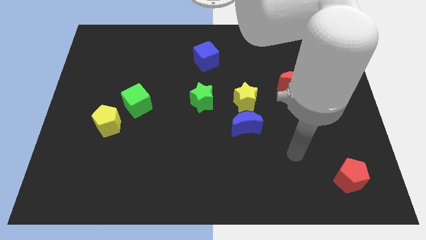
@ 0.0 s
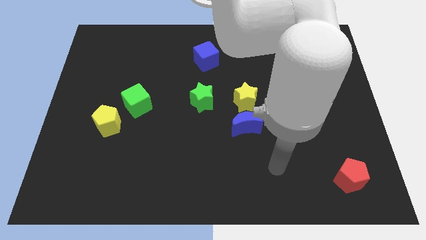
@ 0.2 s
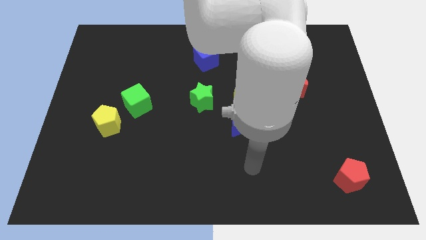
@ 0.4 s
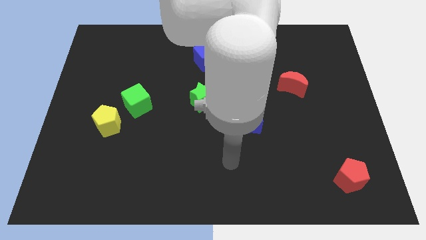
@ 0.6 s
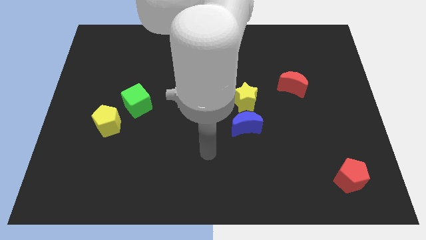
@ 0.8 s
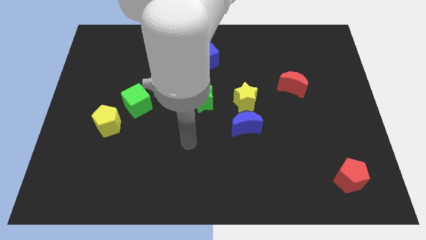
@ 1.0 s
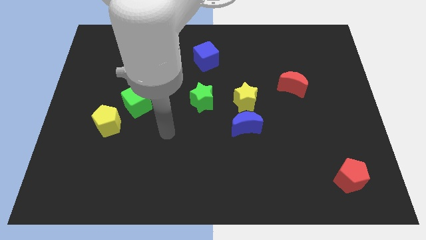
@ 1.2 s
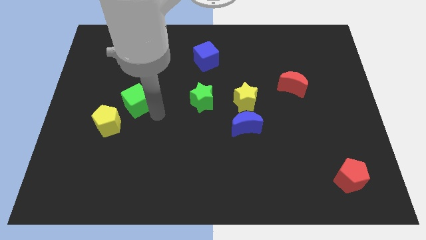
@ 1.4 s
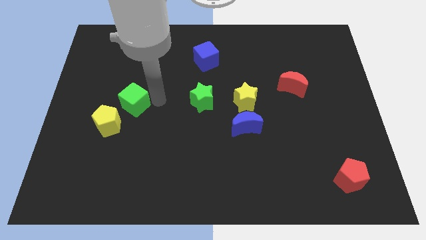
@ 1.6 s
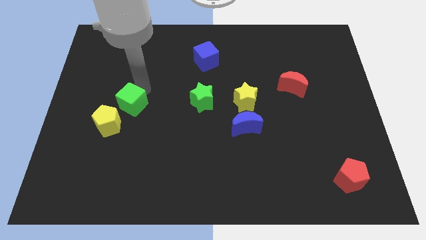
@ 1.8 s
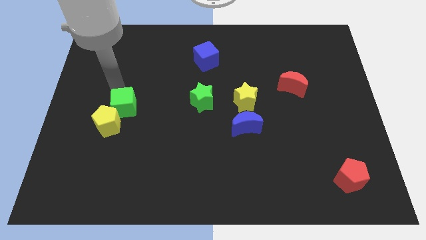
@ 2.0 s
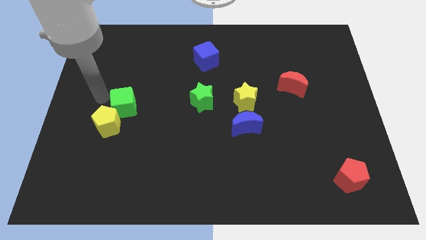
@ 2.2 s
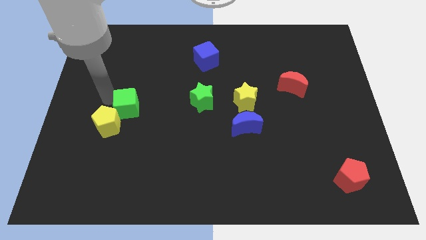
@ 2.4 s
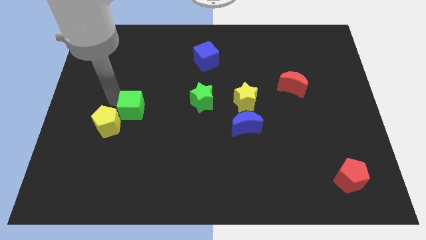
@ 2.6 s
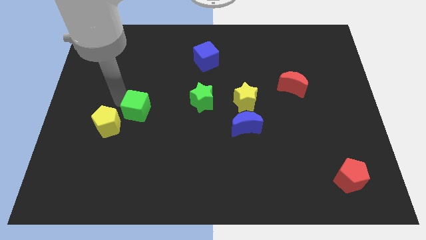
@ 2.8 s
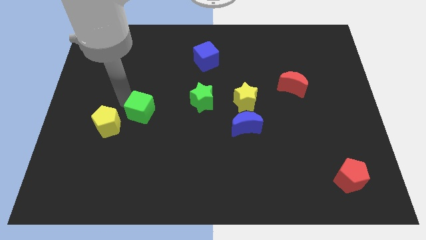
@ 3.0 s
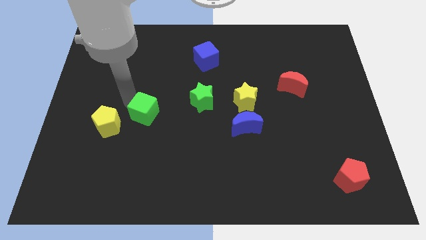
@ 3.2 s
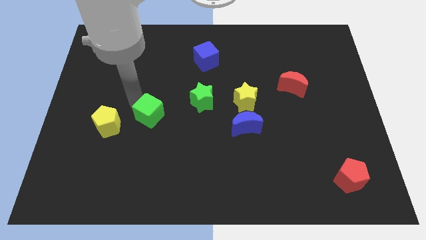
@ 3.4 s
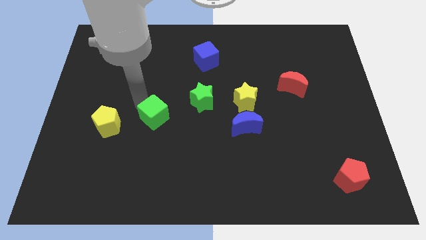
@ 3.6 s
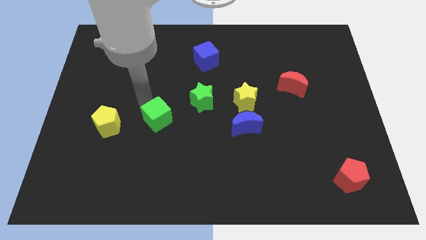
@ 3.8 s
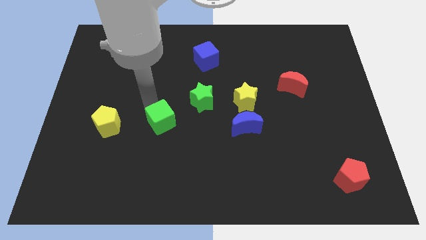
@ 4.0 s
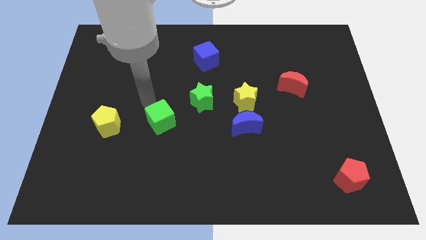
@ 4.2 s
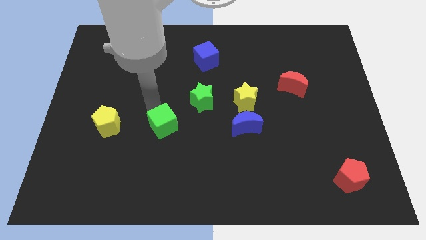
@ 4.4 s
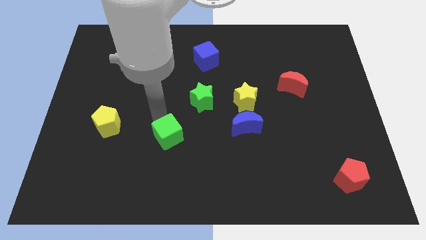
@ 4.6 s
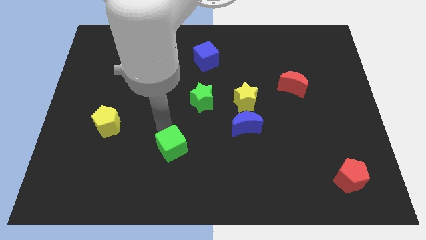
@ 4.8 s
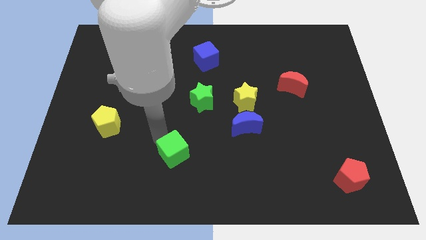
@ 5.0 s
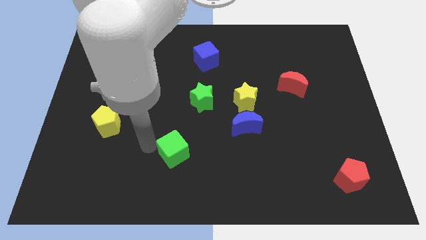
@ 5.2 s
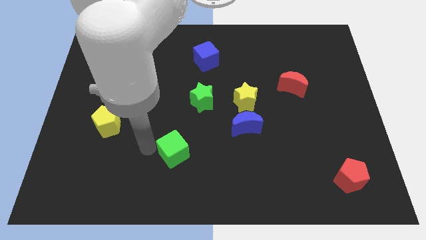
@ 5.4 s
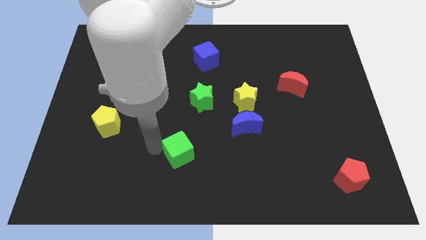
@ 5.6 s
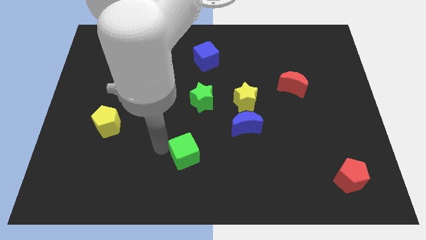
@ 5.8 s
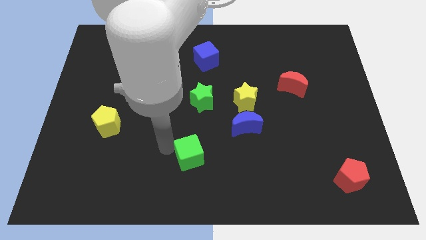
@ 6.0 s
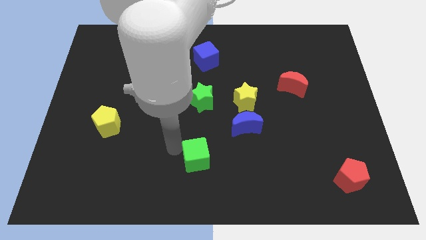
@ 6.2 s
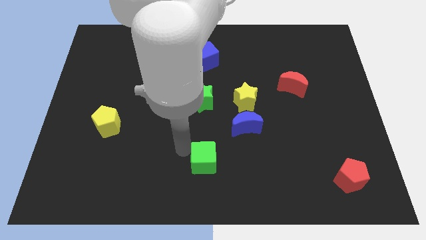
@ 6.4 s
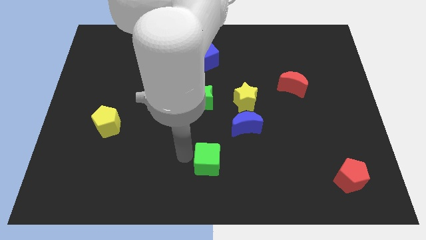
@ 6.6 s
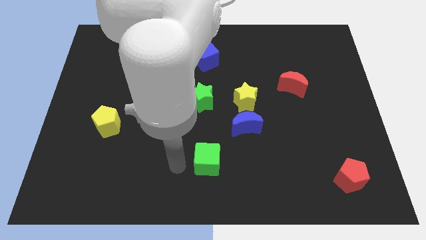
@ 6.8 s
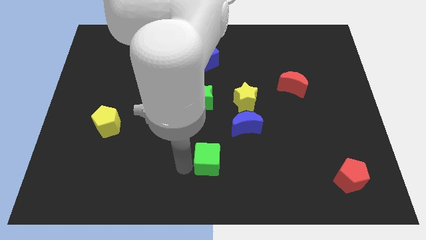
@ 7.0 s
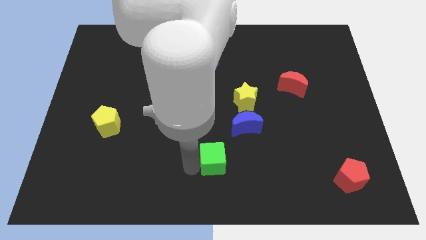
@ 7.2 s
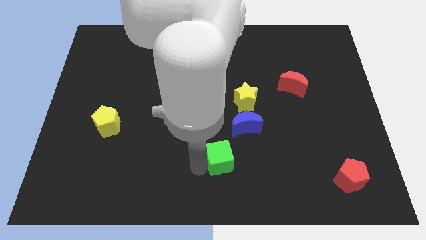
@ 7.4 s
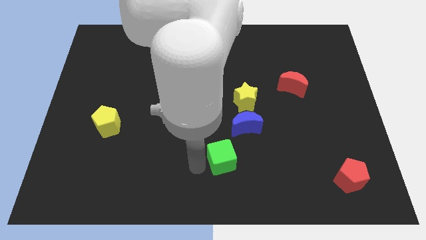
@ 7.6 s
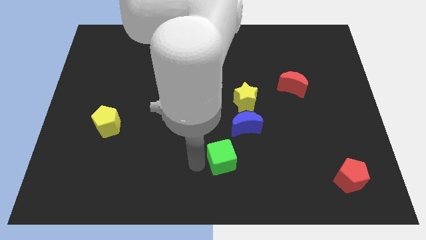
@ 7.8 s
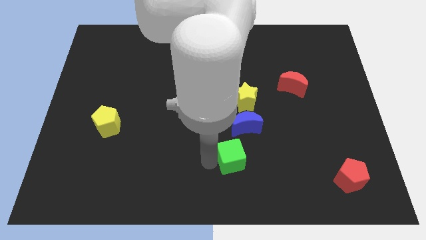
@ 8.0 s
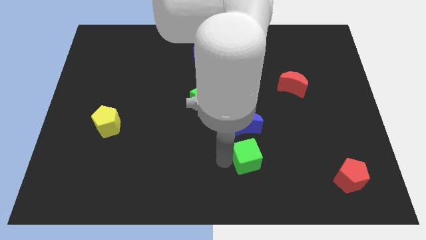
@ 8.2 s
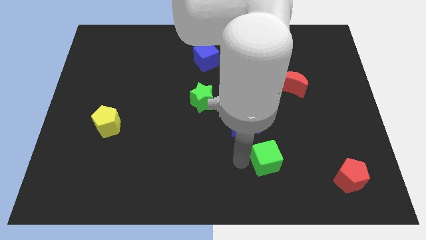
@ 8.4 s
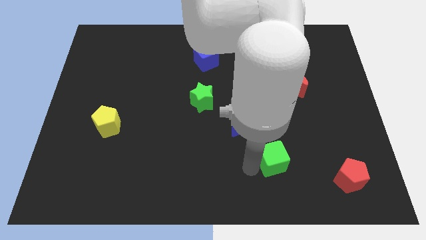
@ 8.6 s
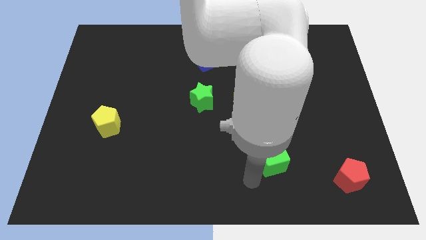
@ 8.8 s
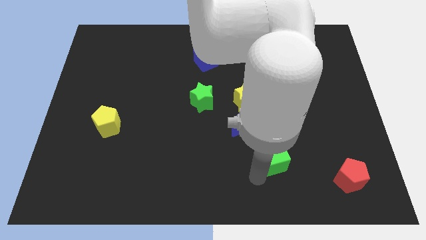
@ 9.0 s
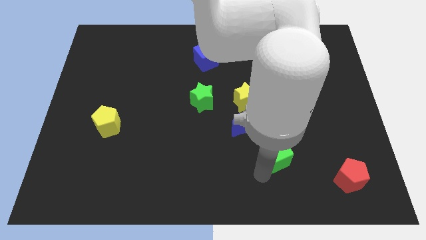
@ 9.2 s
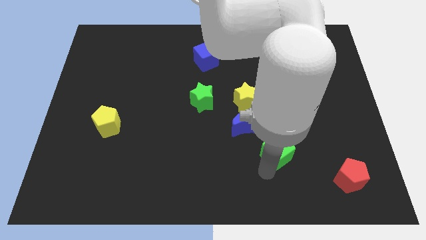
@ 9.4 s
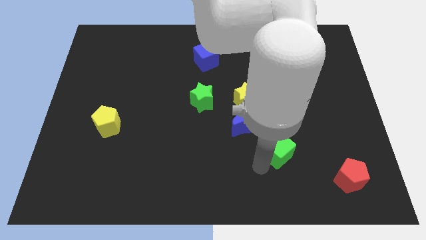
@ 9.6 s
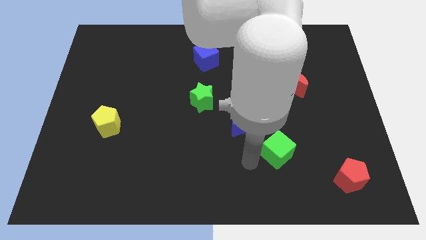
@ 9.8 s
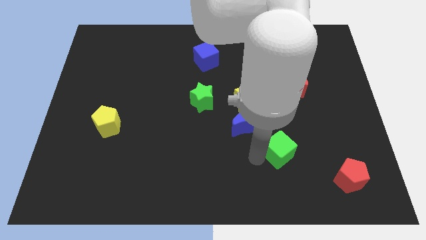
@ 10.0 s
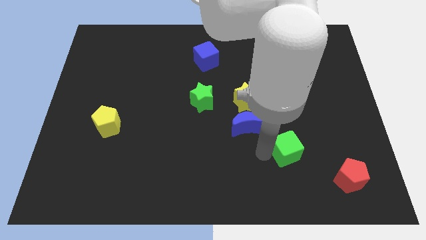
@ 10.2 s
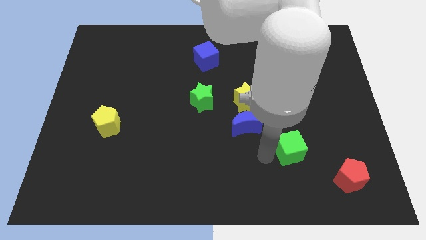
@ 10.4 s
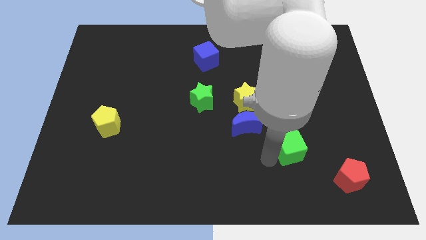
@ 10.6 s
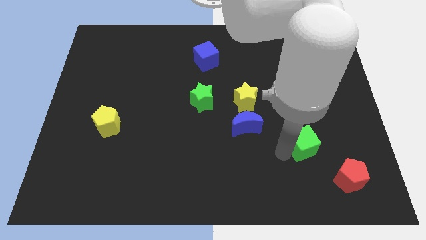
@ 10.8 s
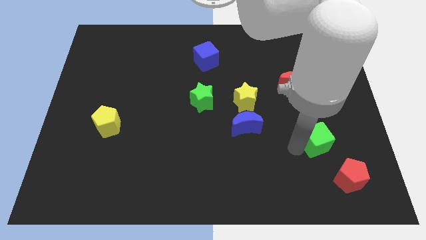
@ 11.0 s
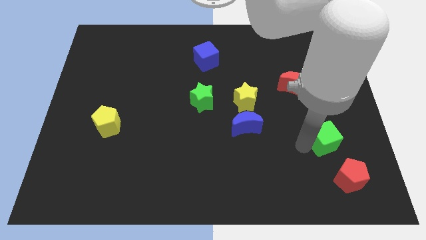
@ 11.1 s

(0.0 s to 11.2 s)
push the green cube to the top of the red pentagon

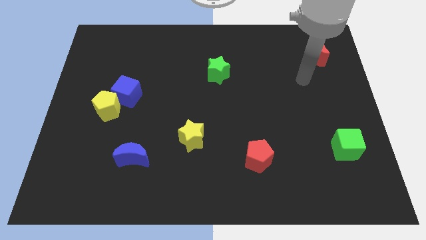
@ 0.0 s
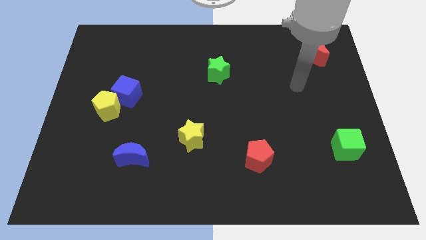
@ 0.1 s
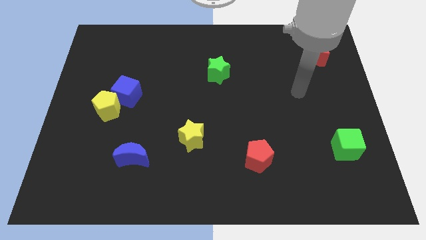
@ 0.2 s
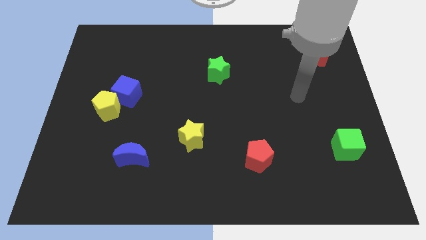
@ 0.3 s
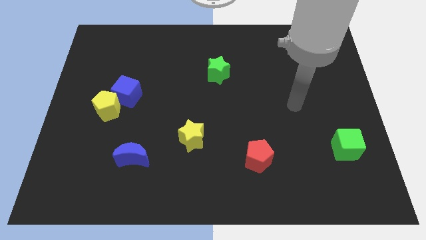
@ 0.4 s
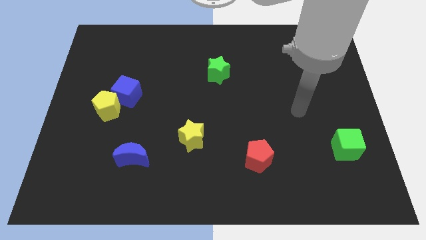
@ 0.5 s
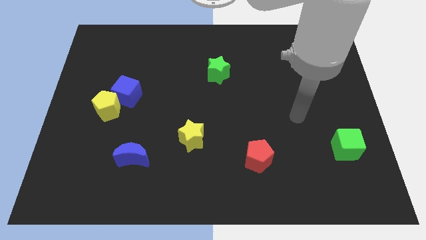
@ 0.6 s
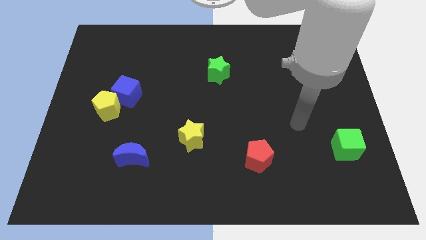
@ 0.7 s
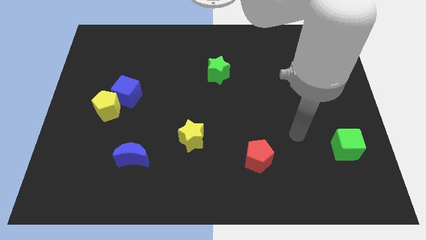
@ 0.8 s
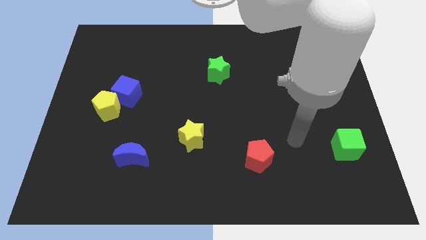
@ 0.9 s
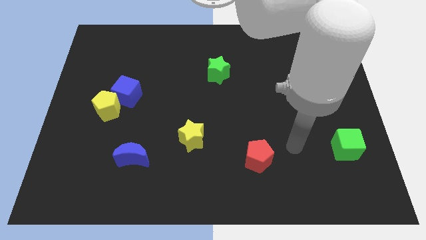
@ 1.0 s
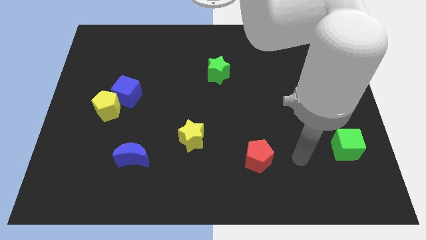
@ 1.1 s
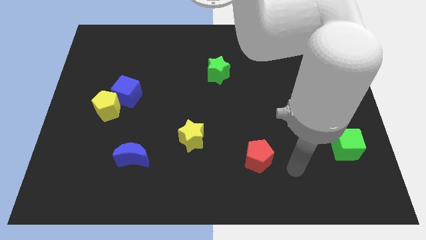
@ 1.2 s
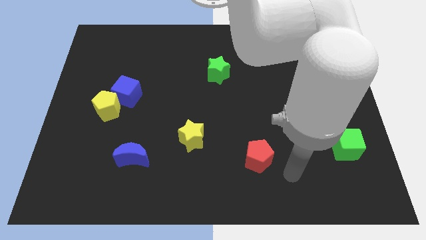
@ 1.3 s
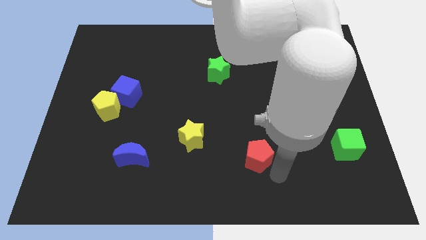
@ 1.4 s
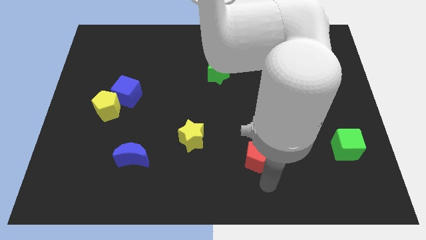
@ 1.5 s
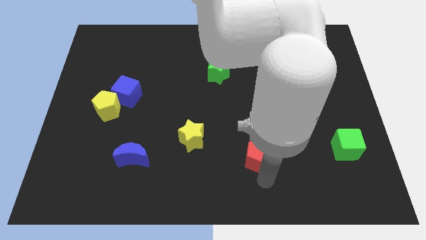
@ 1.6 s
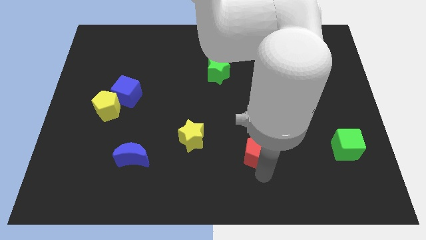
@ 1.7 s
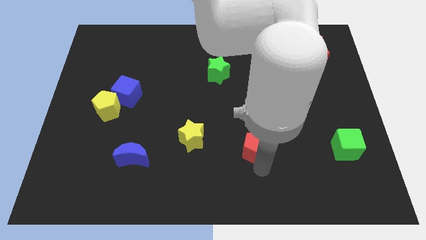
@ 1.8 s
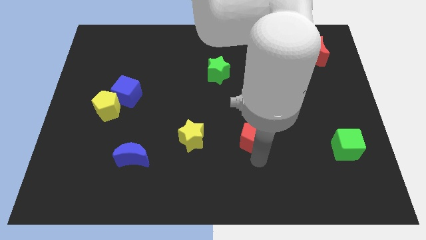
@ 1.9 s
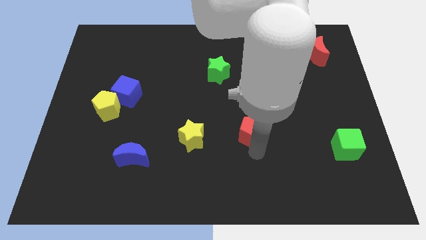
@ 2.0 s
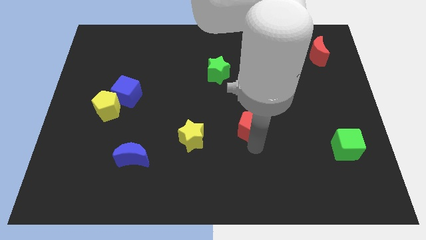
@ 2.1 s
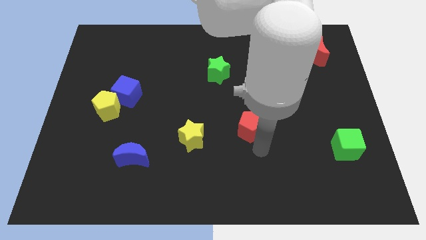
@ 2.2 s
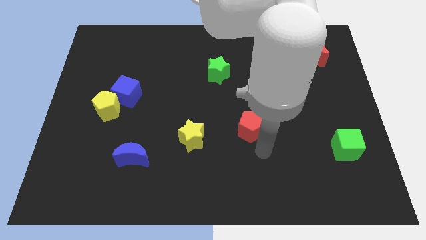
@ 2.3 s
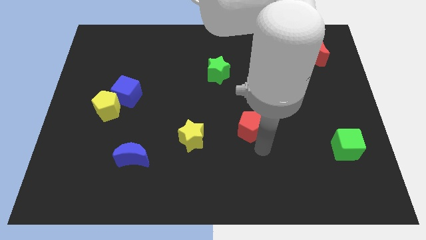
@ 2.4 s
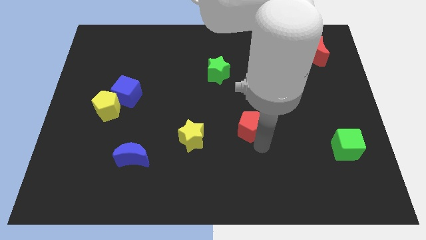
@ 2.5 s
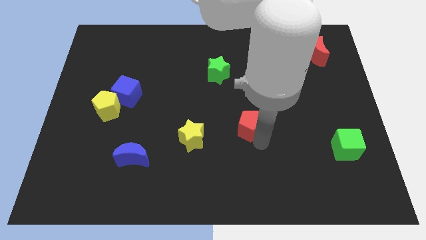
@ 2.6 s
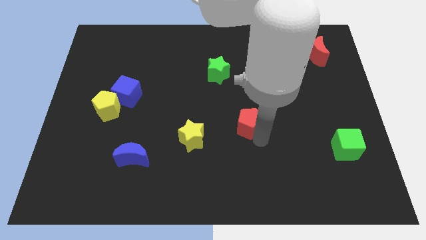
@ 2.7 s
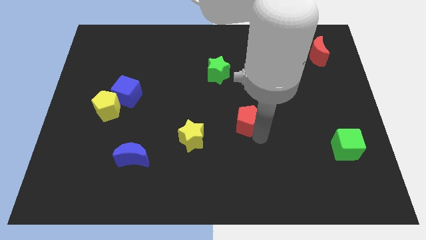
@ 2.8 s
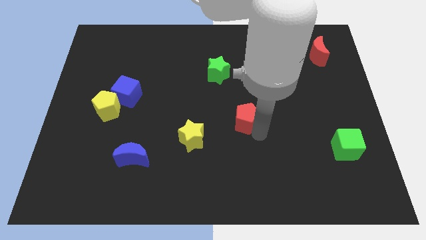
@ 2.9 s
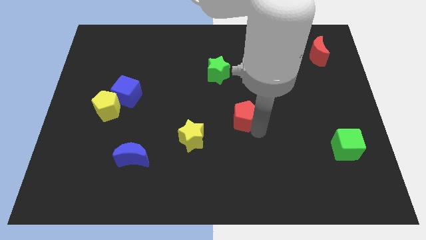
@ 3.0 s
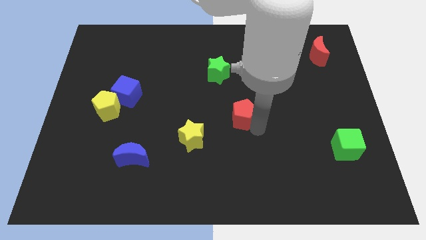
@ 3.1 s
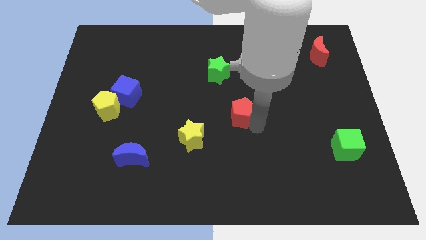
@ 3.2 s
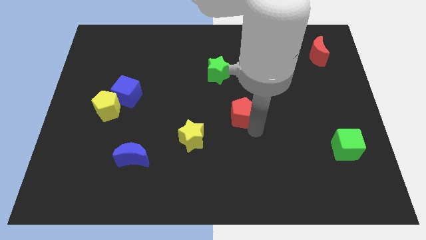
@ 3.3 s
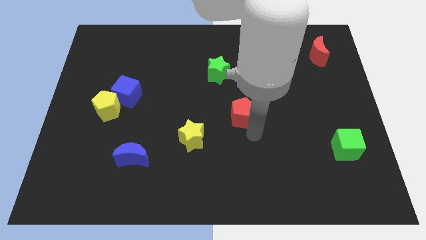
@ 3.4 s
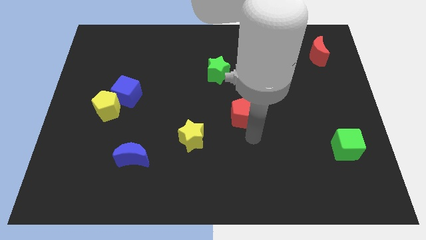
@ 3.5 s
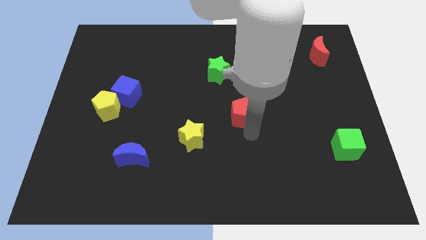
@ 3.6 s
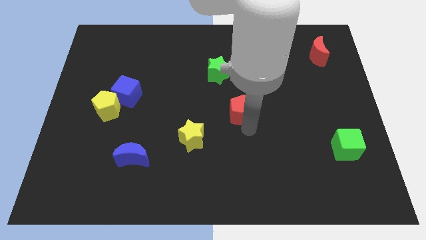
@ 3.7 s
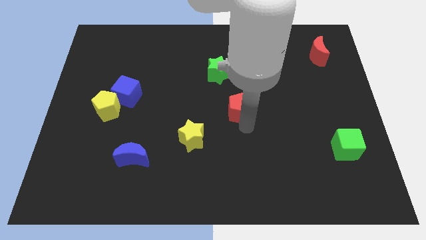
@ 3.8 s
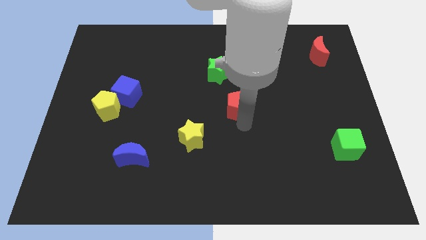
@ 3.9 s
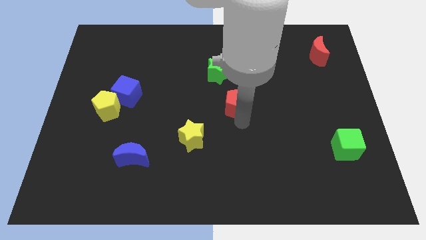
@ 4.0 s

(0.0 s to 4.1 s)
push the red pentagon to the bottom right side of the green star
